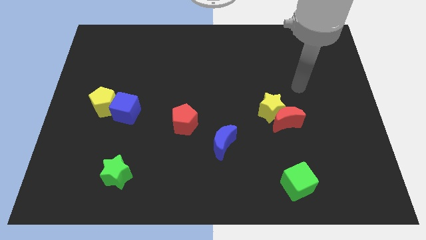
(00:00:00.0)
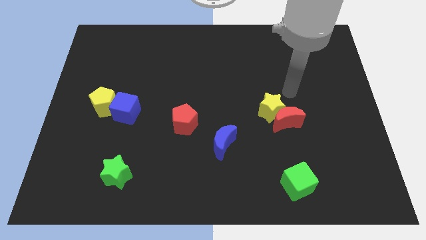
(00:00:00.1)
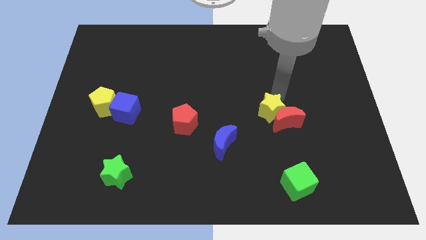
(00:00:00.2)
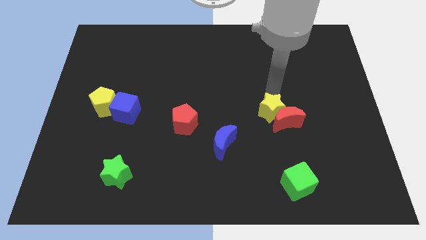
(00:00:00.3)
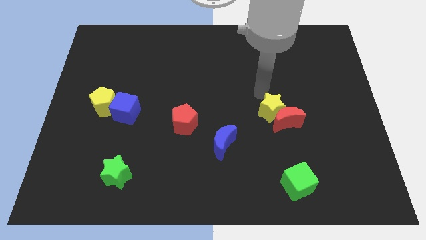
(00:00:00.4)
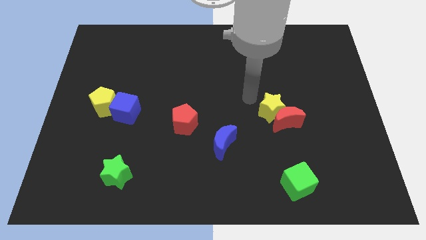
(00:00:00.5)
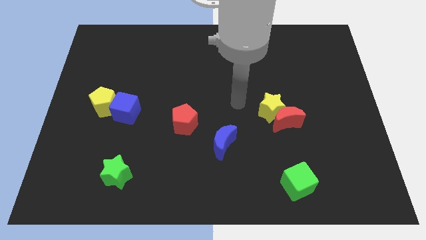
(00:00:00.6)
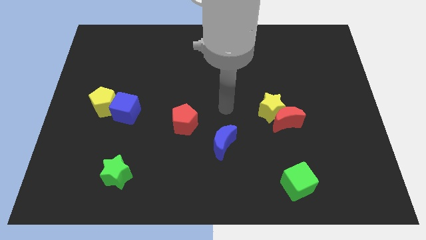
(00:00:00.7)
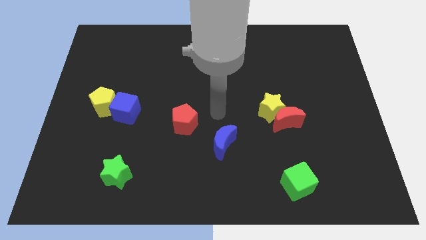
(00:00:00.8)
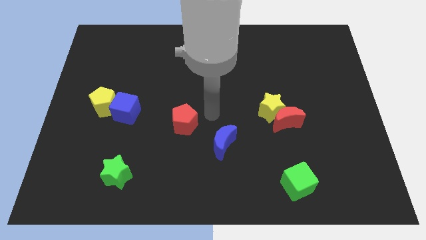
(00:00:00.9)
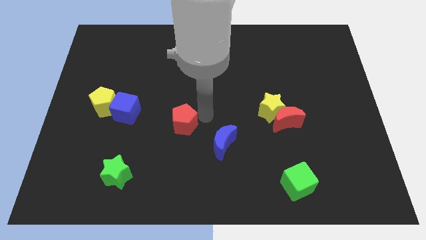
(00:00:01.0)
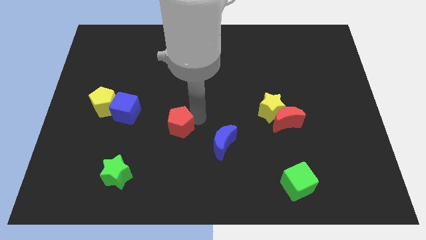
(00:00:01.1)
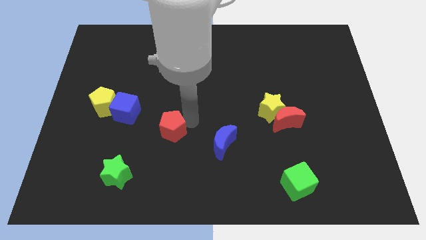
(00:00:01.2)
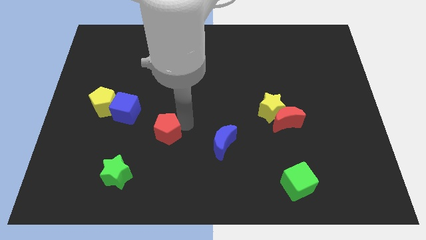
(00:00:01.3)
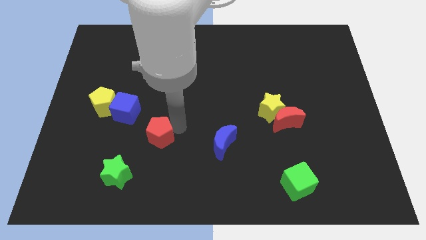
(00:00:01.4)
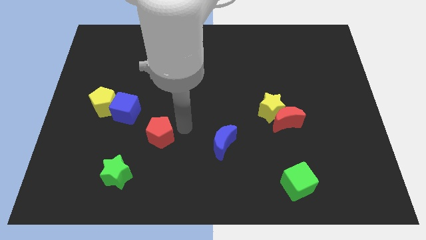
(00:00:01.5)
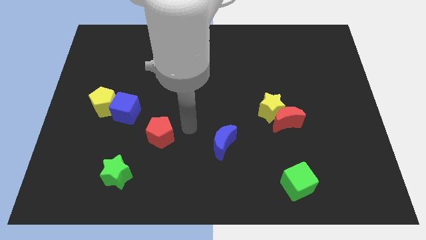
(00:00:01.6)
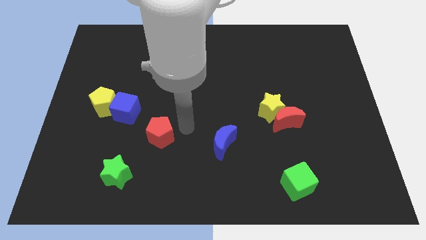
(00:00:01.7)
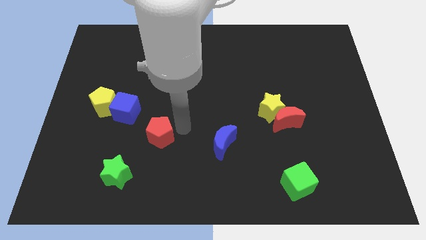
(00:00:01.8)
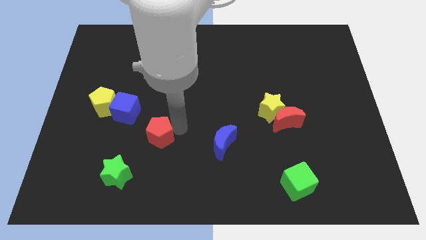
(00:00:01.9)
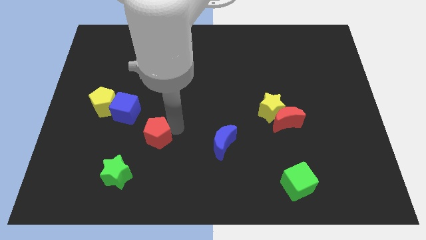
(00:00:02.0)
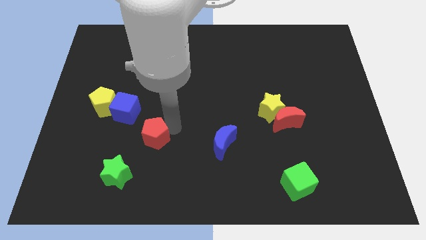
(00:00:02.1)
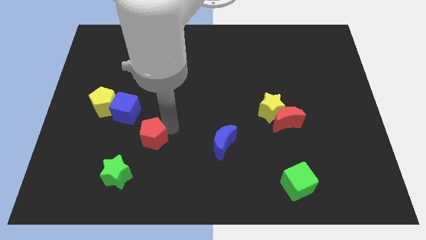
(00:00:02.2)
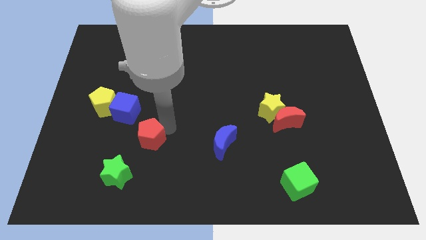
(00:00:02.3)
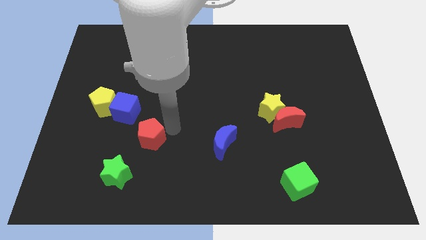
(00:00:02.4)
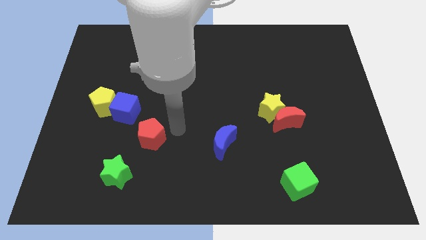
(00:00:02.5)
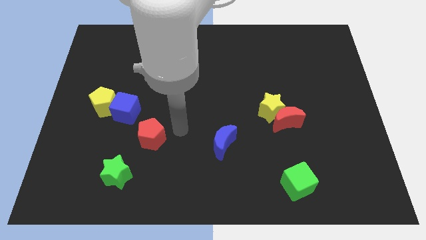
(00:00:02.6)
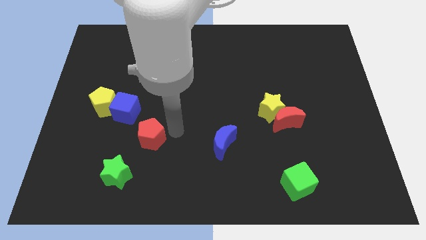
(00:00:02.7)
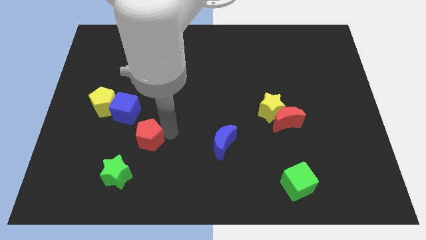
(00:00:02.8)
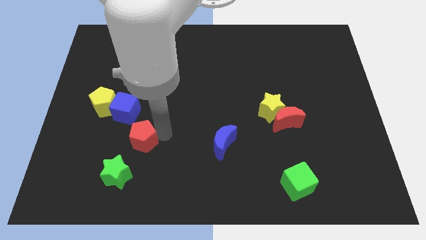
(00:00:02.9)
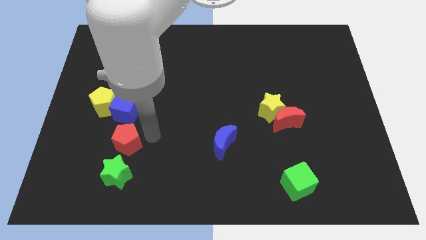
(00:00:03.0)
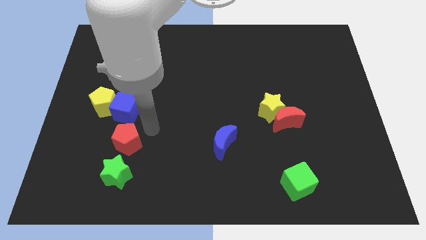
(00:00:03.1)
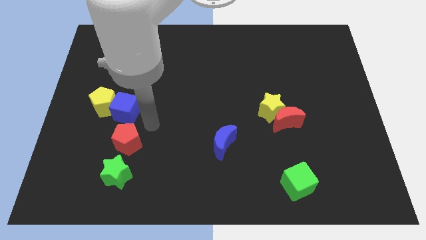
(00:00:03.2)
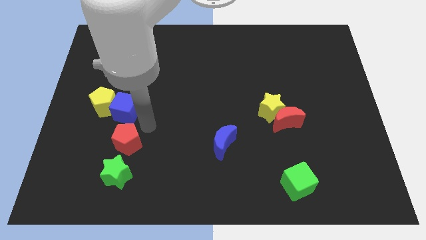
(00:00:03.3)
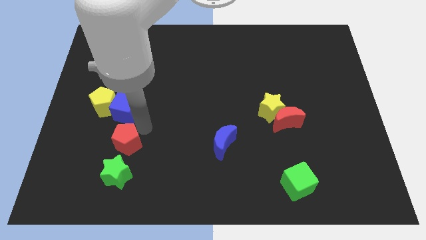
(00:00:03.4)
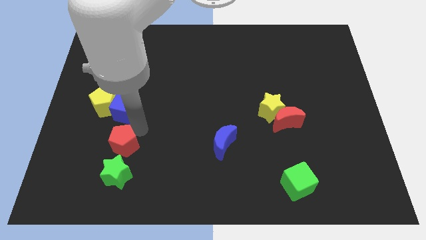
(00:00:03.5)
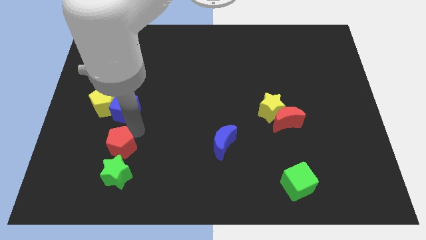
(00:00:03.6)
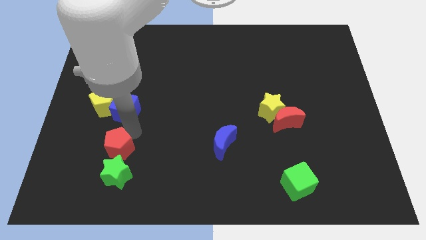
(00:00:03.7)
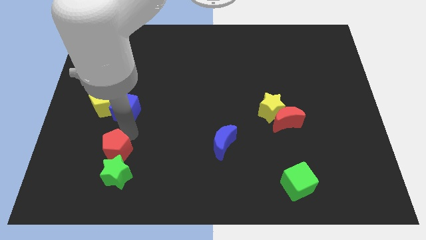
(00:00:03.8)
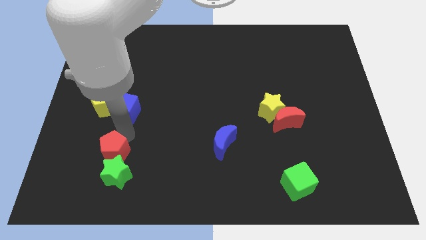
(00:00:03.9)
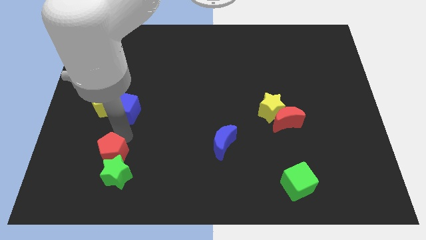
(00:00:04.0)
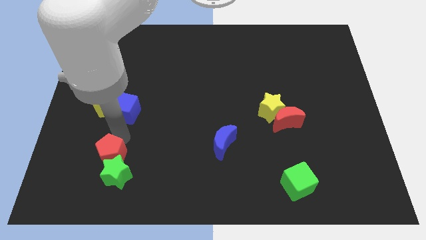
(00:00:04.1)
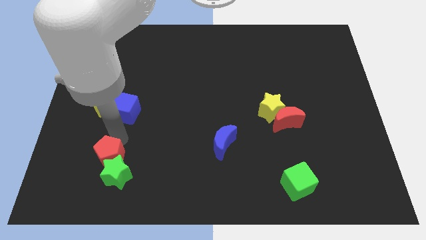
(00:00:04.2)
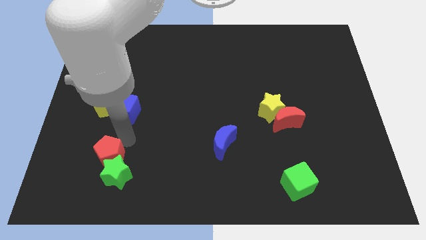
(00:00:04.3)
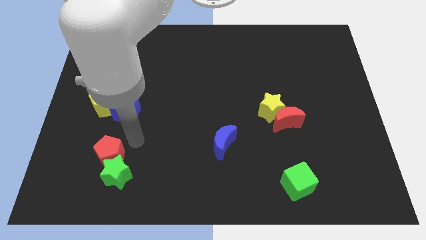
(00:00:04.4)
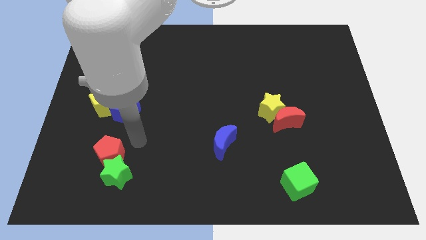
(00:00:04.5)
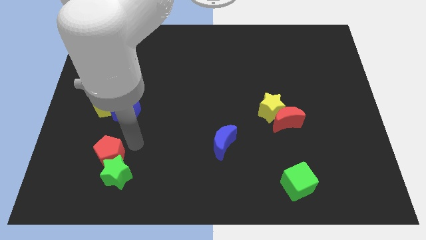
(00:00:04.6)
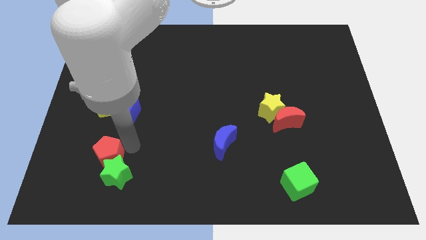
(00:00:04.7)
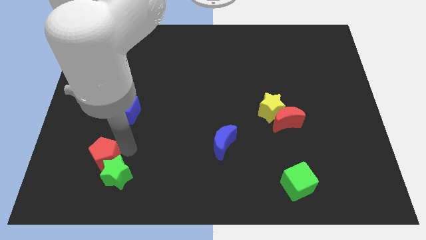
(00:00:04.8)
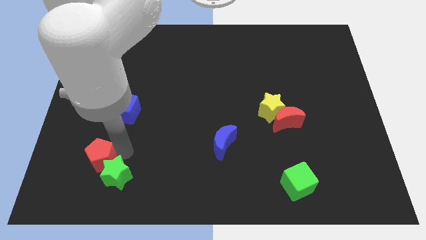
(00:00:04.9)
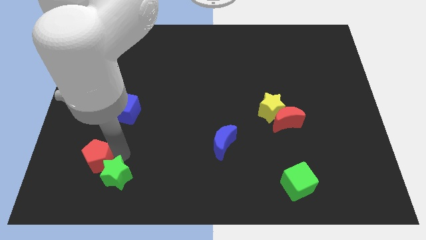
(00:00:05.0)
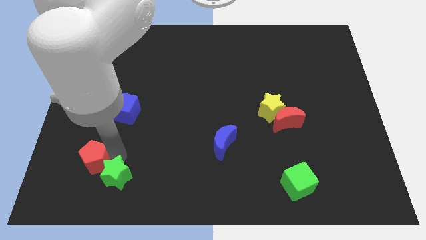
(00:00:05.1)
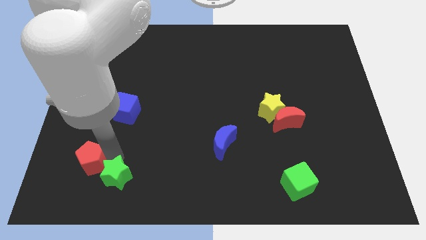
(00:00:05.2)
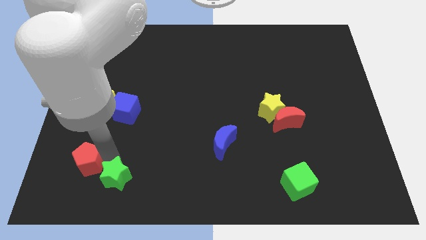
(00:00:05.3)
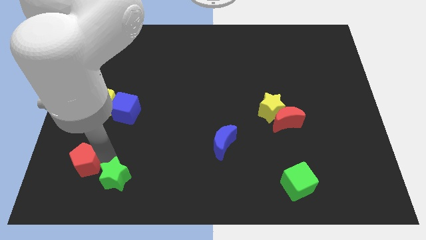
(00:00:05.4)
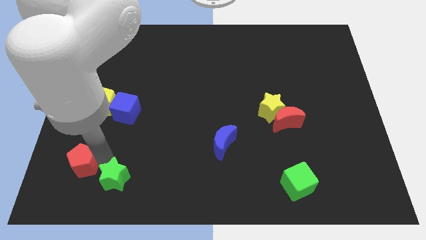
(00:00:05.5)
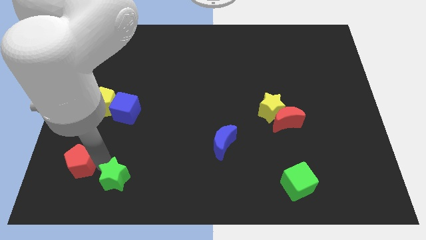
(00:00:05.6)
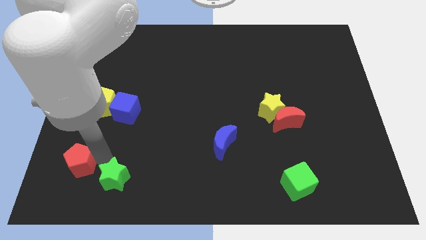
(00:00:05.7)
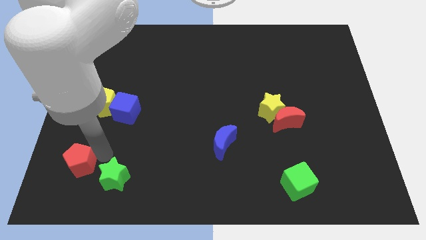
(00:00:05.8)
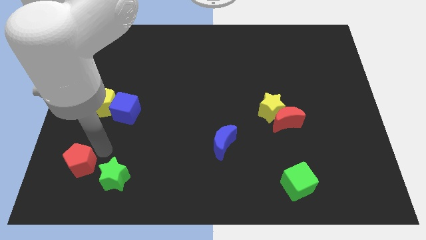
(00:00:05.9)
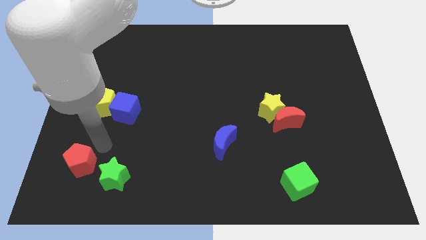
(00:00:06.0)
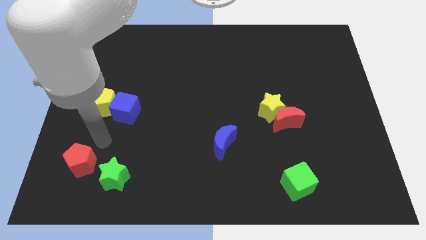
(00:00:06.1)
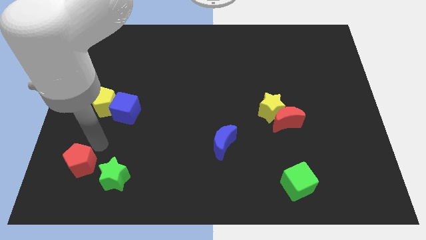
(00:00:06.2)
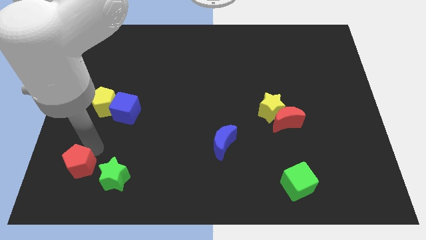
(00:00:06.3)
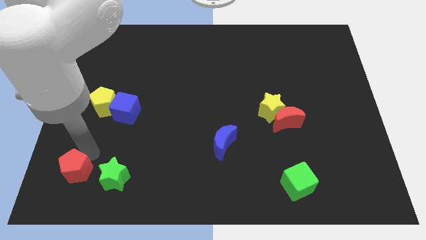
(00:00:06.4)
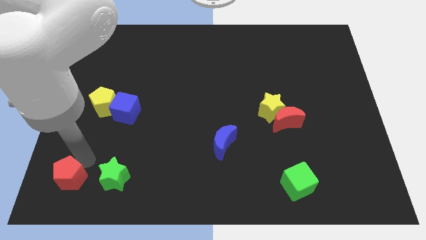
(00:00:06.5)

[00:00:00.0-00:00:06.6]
slide the red pentagon to the bottom left corner
